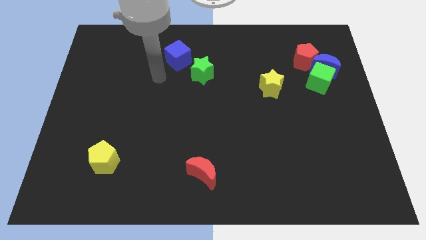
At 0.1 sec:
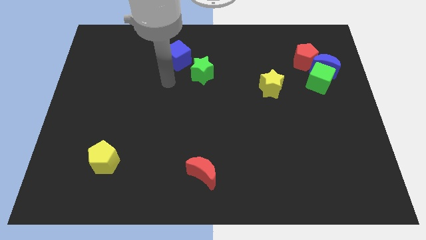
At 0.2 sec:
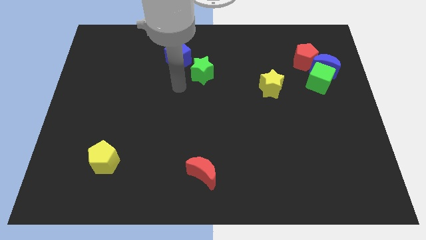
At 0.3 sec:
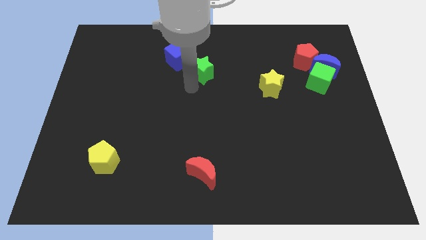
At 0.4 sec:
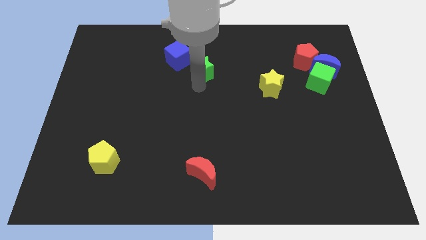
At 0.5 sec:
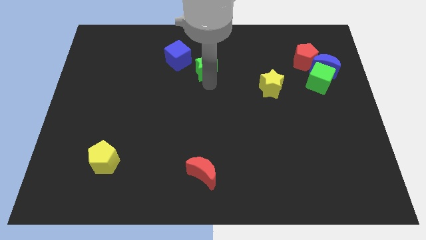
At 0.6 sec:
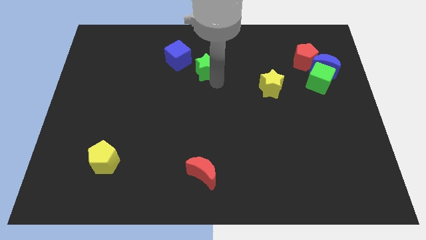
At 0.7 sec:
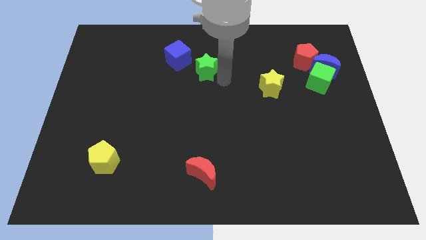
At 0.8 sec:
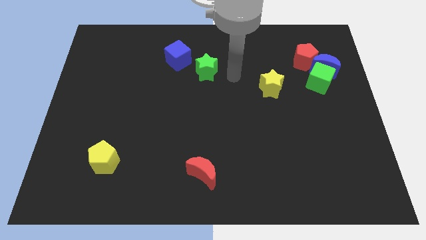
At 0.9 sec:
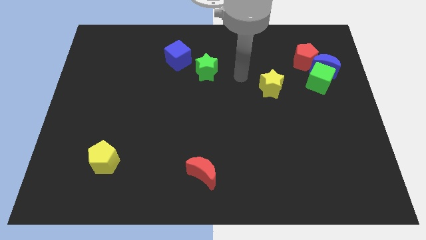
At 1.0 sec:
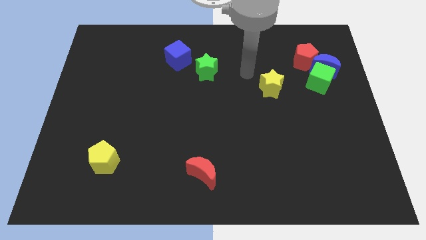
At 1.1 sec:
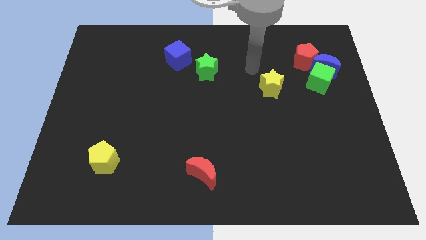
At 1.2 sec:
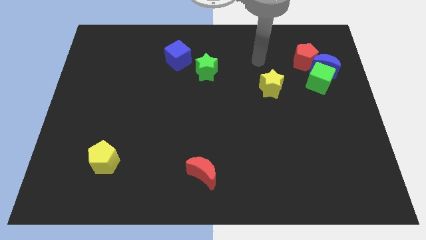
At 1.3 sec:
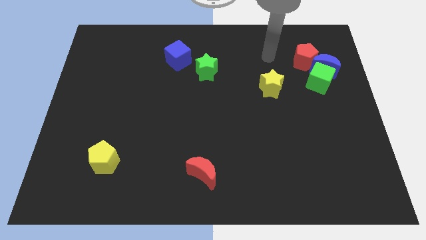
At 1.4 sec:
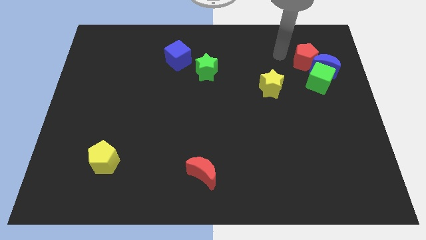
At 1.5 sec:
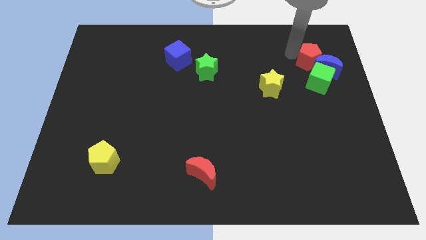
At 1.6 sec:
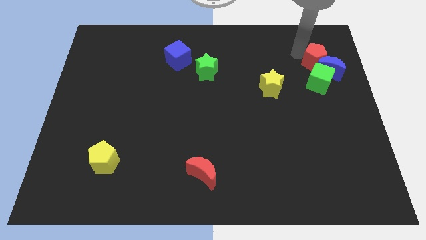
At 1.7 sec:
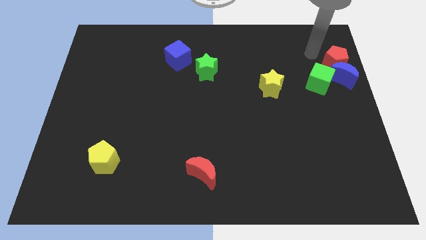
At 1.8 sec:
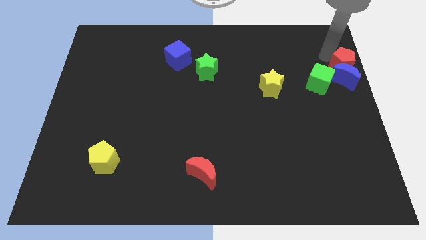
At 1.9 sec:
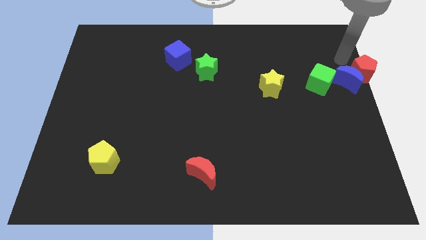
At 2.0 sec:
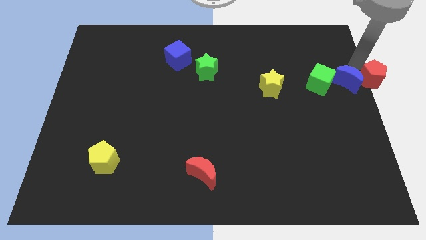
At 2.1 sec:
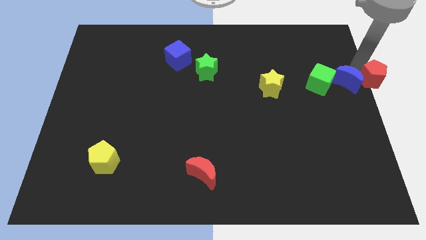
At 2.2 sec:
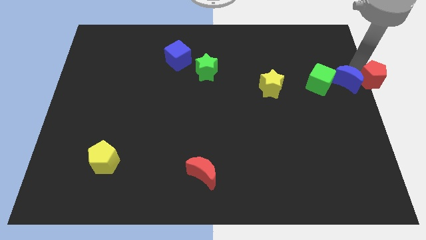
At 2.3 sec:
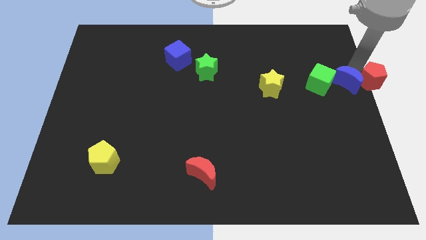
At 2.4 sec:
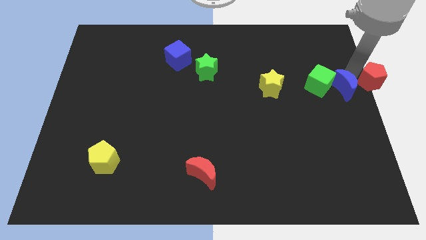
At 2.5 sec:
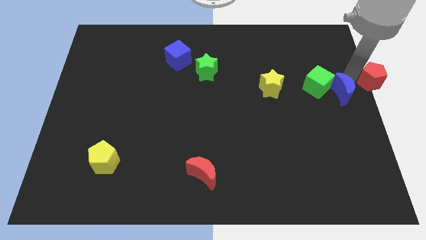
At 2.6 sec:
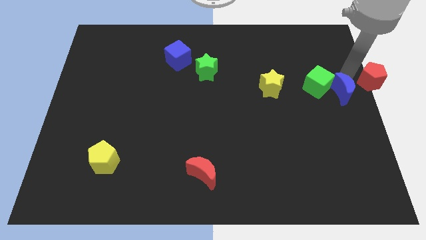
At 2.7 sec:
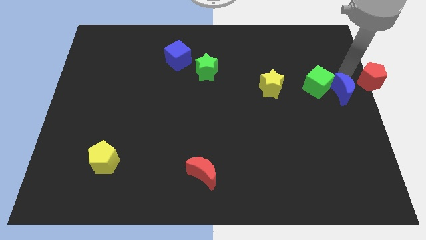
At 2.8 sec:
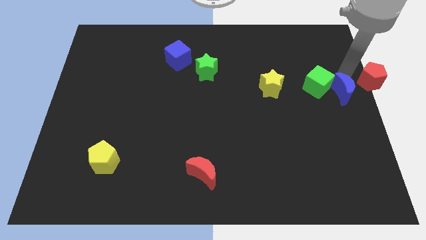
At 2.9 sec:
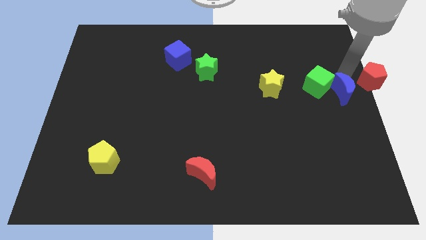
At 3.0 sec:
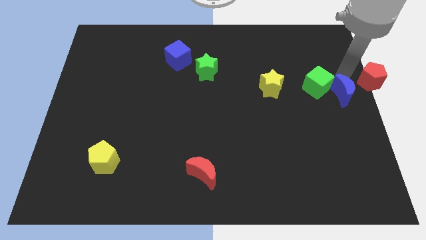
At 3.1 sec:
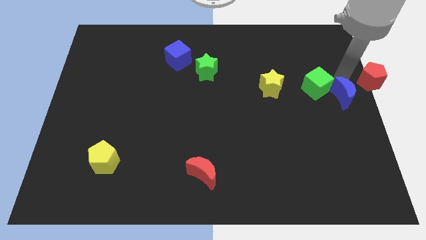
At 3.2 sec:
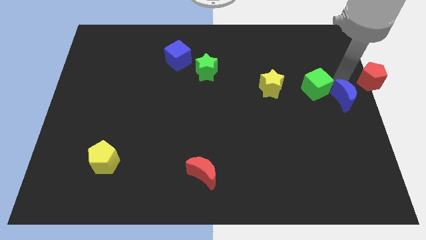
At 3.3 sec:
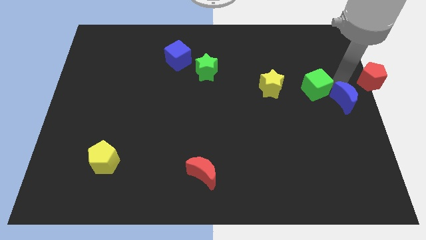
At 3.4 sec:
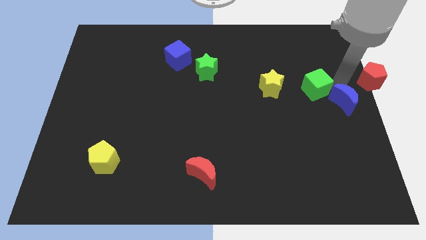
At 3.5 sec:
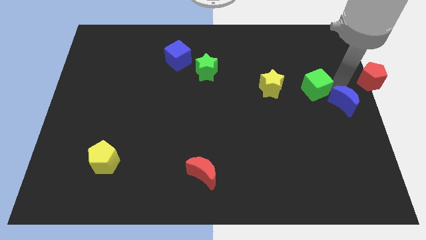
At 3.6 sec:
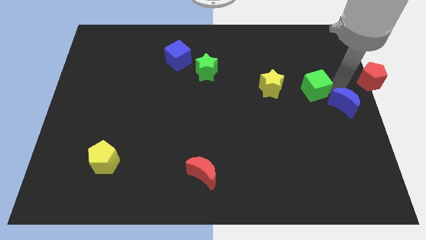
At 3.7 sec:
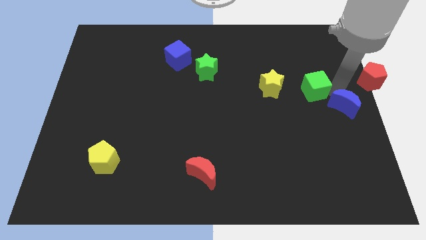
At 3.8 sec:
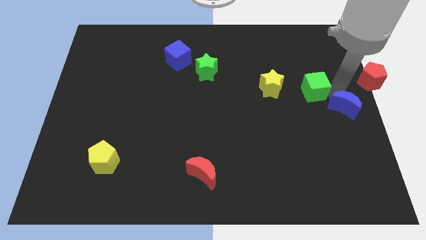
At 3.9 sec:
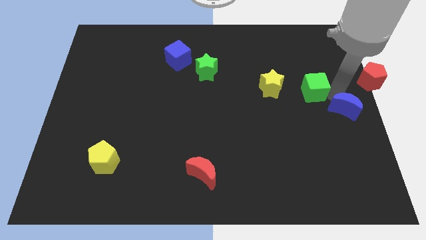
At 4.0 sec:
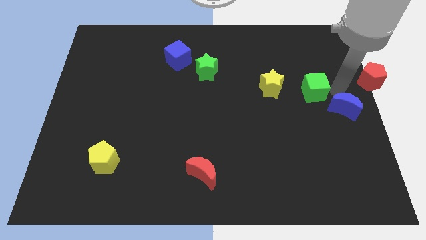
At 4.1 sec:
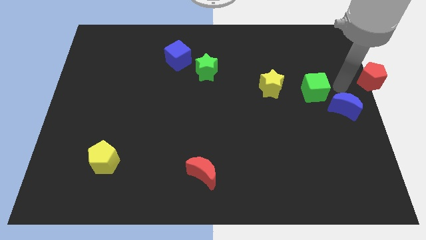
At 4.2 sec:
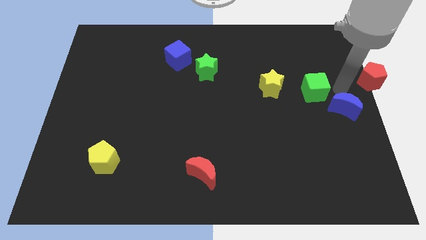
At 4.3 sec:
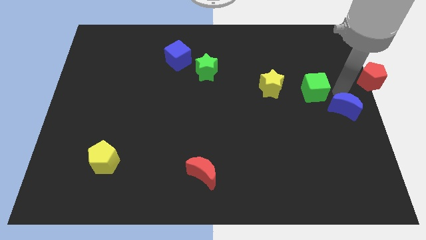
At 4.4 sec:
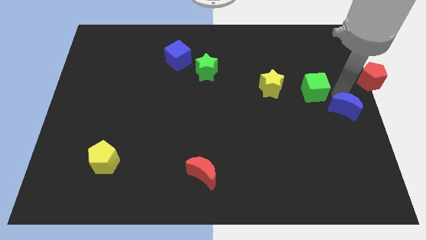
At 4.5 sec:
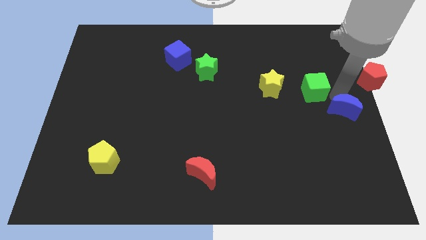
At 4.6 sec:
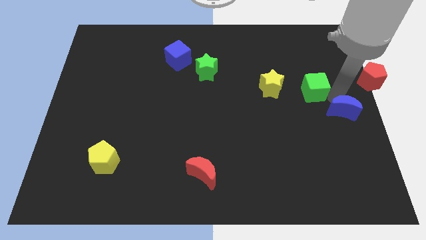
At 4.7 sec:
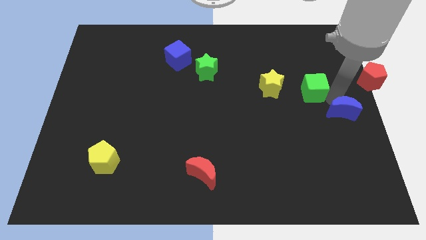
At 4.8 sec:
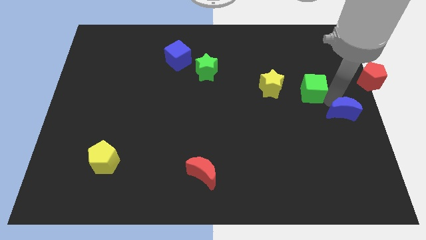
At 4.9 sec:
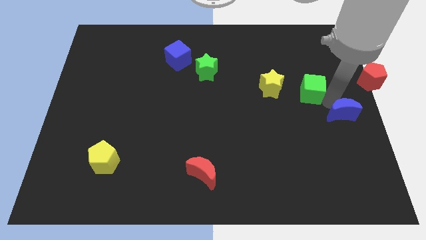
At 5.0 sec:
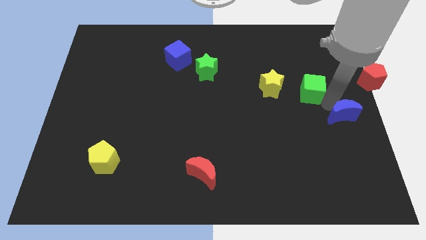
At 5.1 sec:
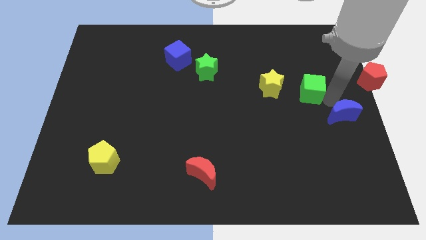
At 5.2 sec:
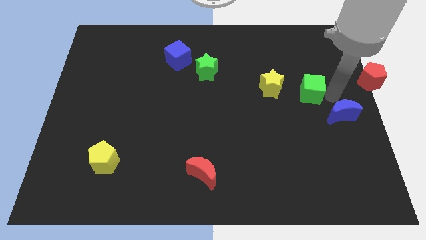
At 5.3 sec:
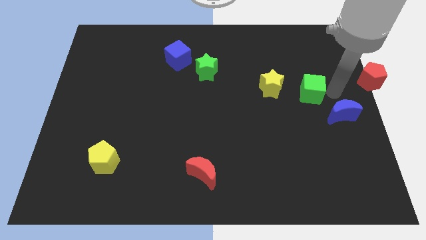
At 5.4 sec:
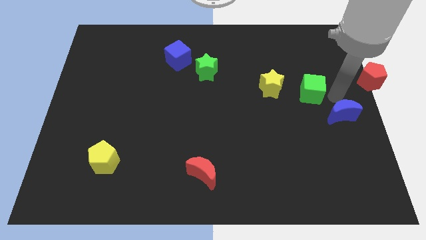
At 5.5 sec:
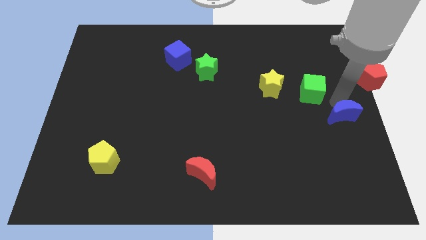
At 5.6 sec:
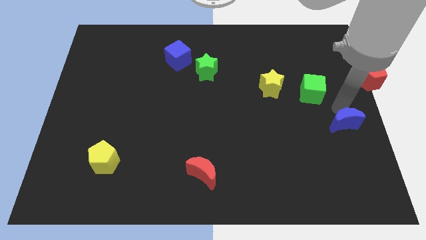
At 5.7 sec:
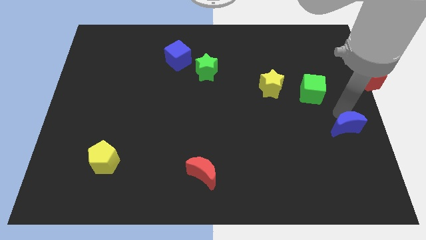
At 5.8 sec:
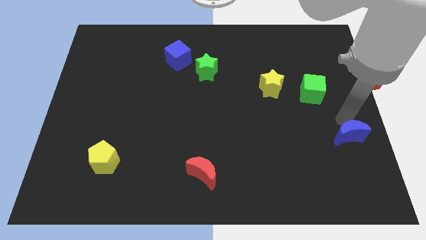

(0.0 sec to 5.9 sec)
slide the blue moon downwards

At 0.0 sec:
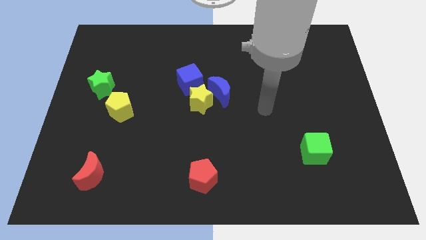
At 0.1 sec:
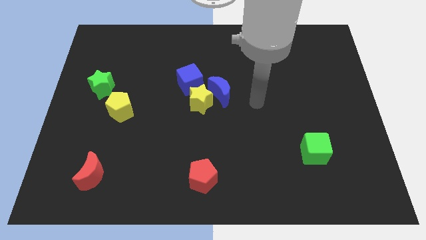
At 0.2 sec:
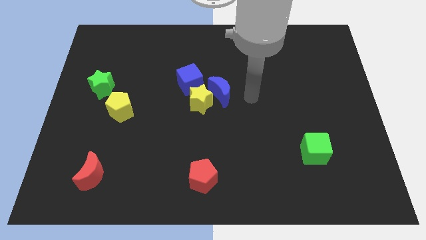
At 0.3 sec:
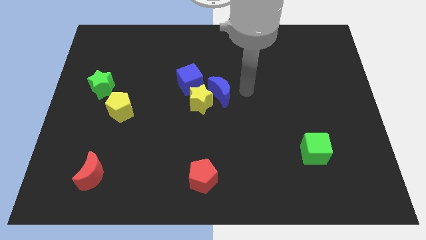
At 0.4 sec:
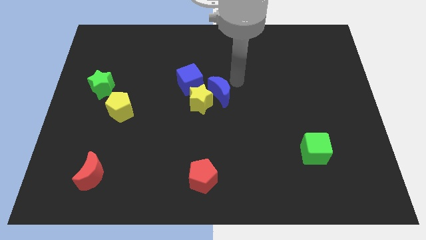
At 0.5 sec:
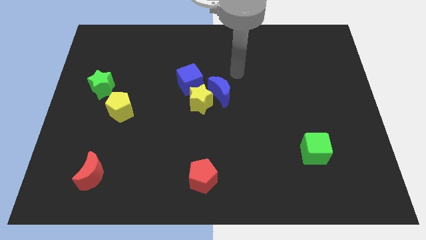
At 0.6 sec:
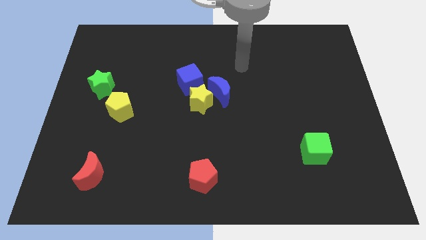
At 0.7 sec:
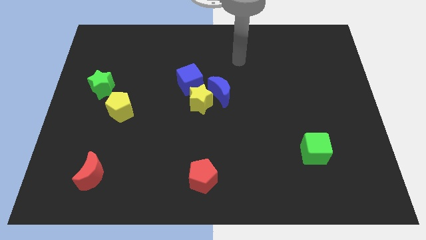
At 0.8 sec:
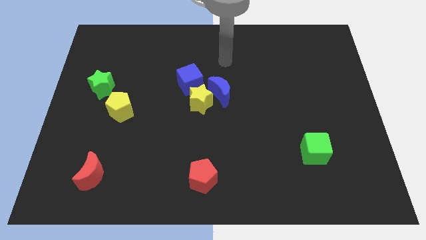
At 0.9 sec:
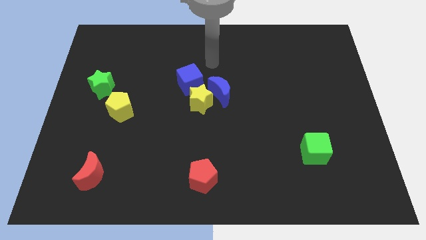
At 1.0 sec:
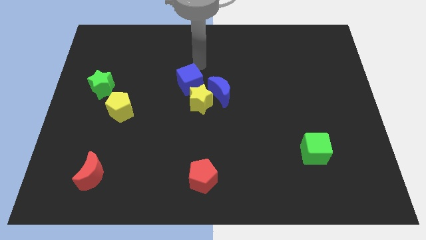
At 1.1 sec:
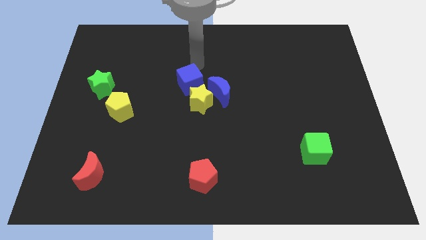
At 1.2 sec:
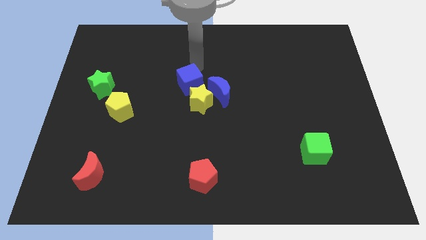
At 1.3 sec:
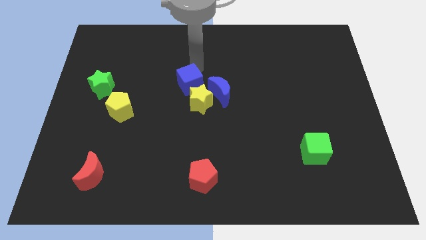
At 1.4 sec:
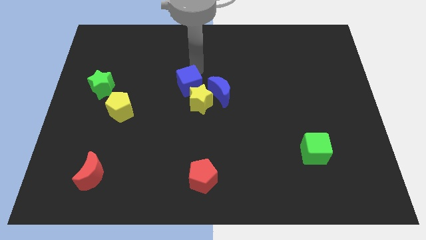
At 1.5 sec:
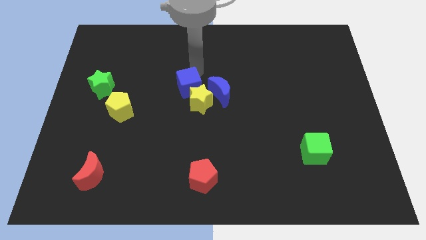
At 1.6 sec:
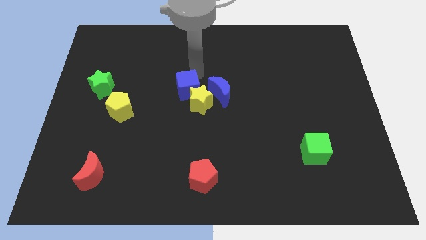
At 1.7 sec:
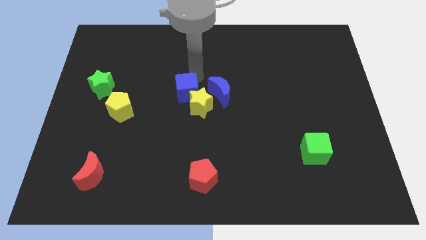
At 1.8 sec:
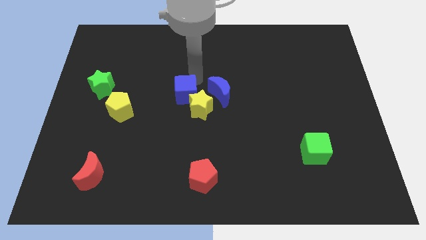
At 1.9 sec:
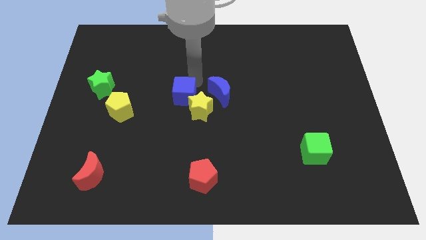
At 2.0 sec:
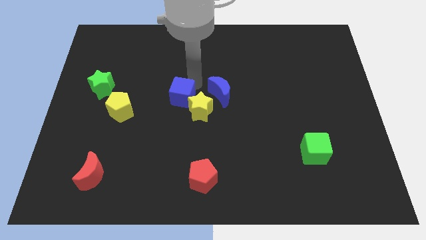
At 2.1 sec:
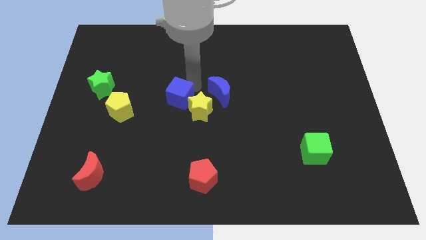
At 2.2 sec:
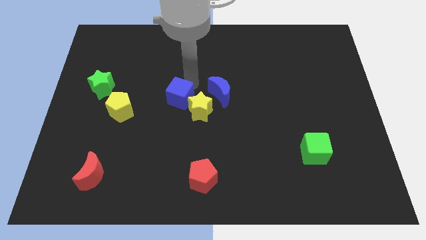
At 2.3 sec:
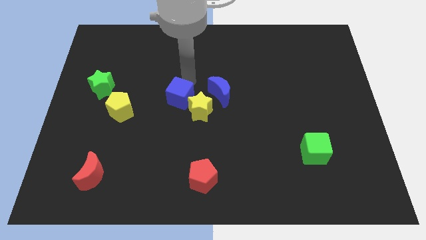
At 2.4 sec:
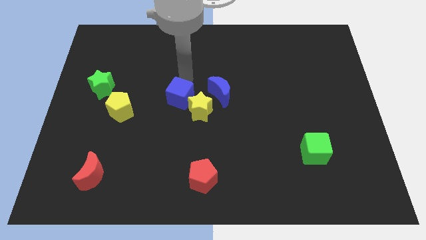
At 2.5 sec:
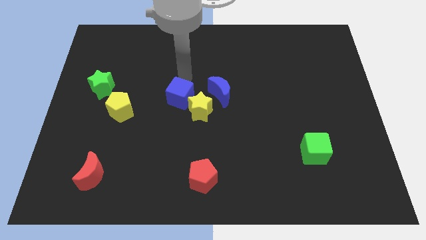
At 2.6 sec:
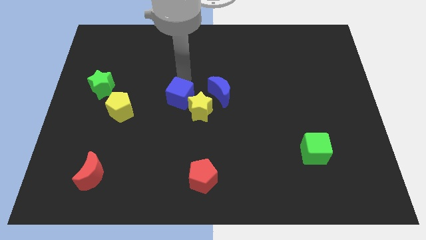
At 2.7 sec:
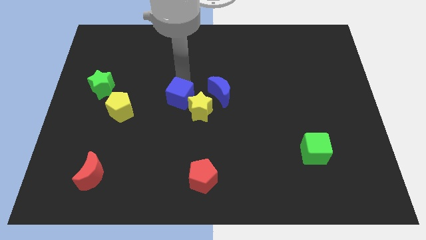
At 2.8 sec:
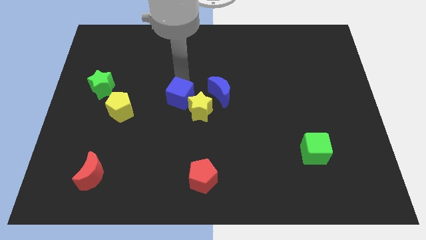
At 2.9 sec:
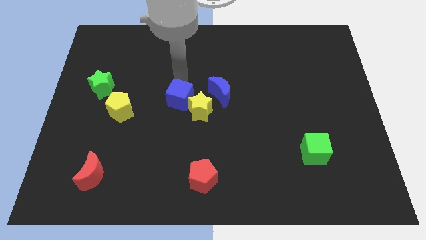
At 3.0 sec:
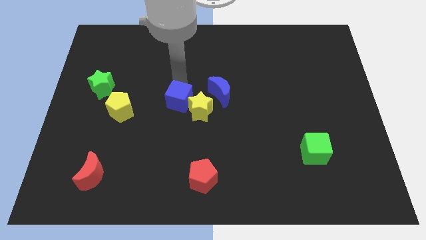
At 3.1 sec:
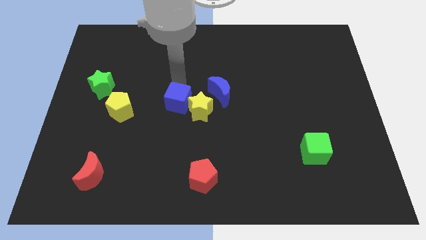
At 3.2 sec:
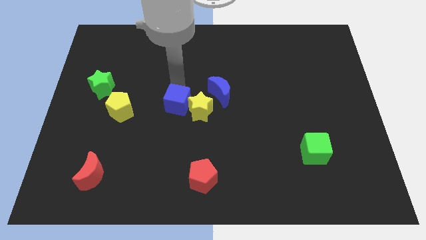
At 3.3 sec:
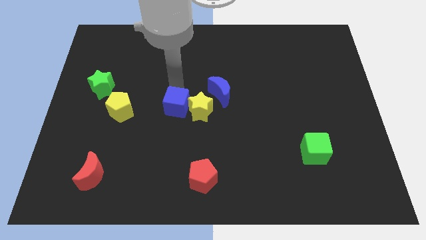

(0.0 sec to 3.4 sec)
slightly move the blue cube down
